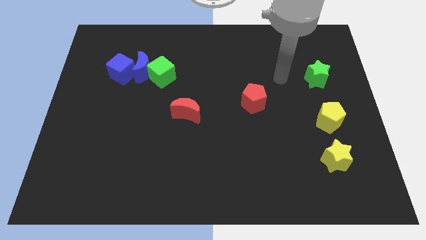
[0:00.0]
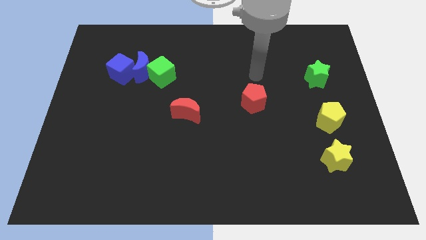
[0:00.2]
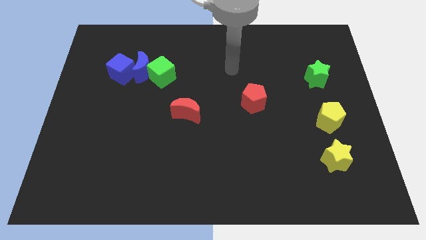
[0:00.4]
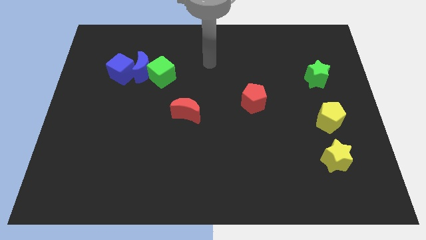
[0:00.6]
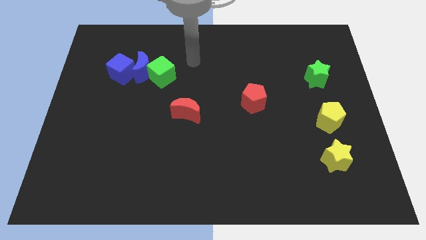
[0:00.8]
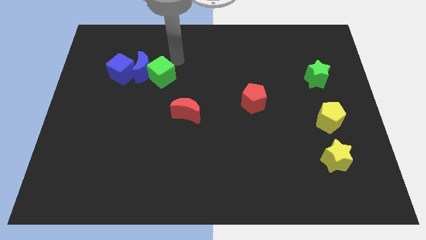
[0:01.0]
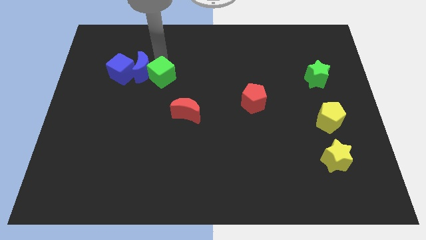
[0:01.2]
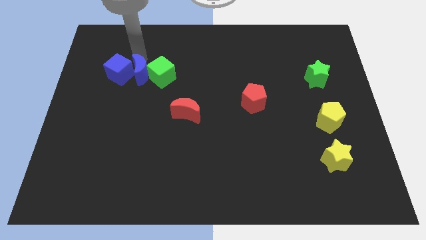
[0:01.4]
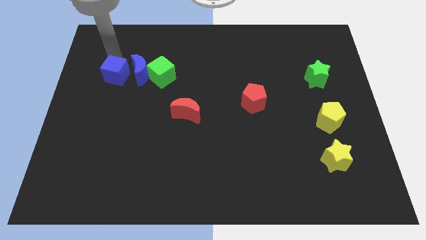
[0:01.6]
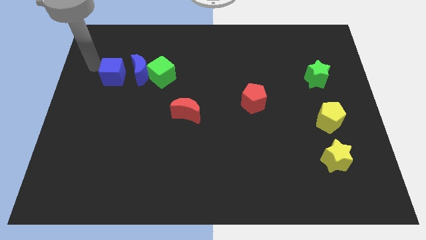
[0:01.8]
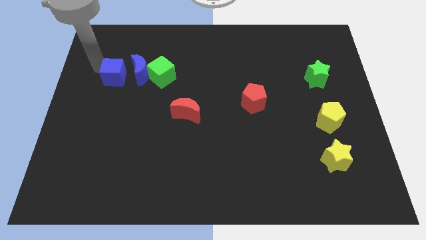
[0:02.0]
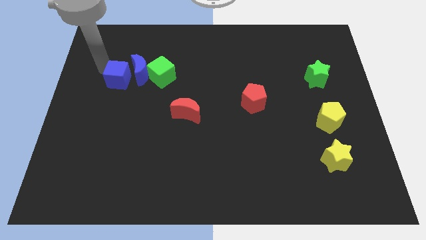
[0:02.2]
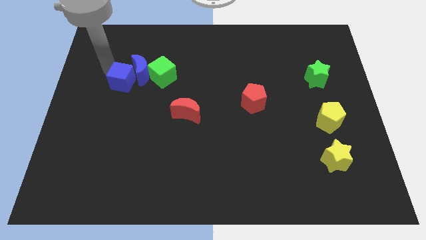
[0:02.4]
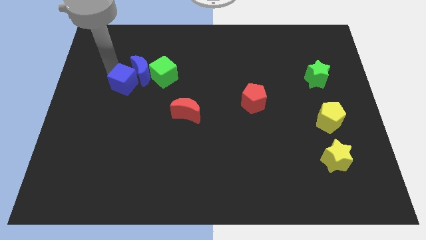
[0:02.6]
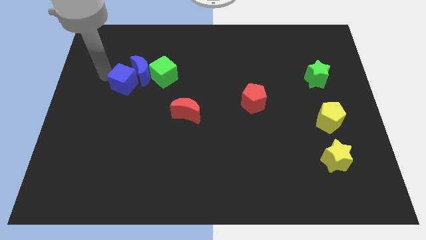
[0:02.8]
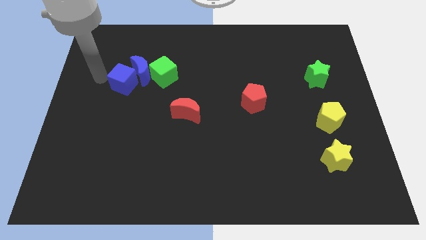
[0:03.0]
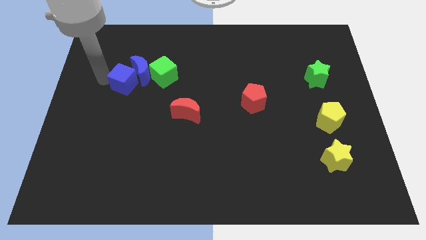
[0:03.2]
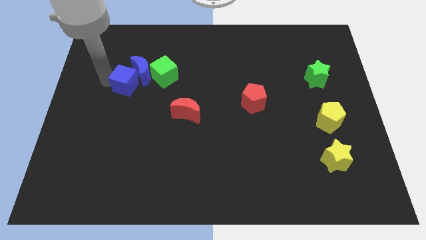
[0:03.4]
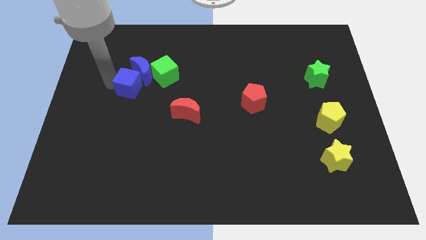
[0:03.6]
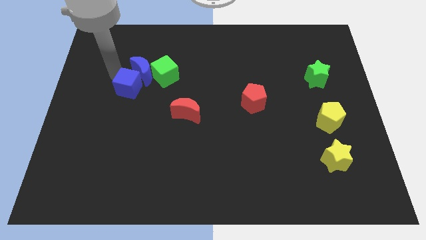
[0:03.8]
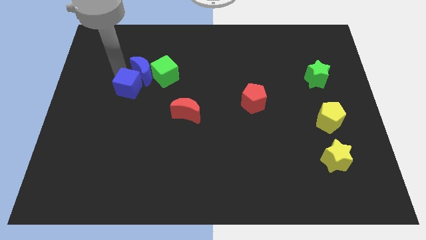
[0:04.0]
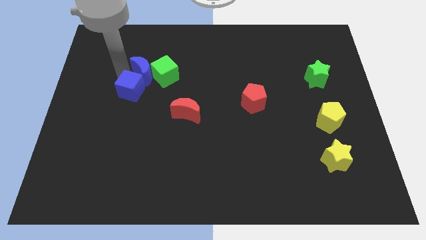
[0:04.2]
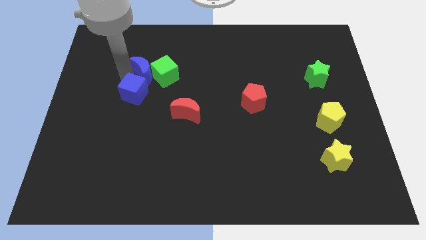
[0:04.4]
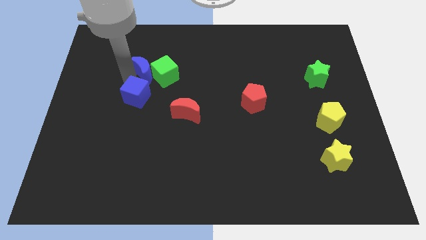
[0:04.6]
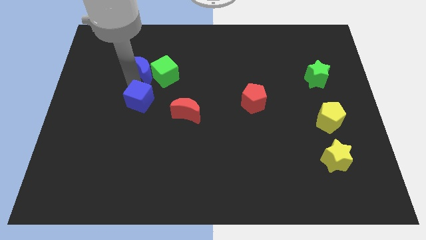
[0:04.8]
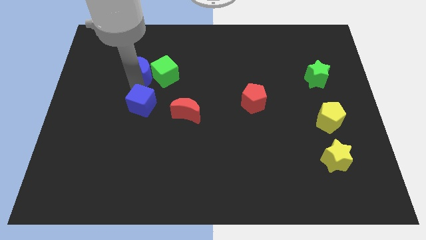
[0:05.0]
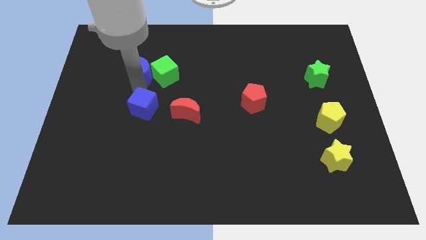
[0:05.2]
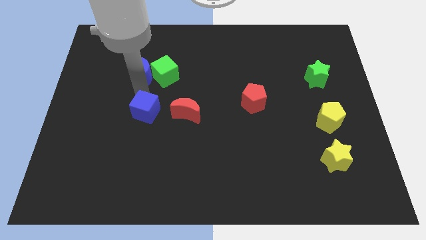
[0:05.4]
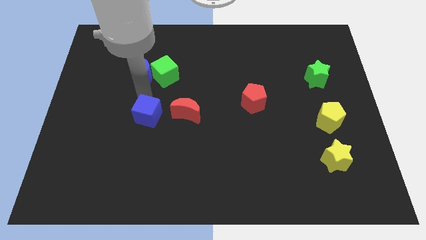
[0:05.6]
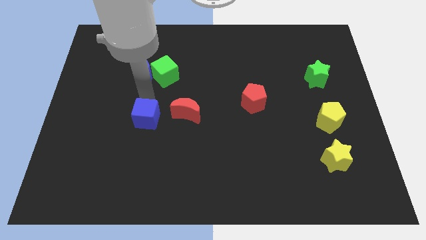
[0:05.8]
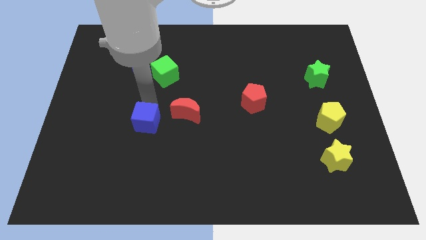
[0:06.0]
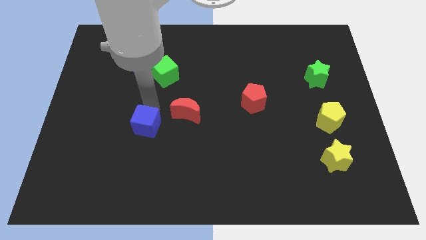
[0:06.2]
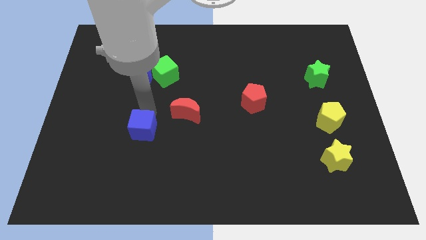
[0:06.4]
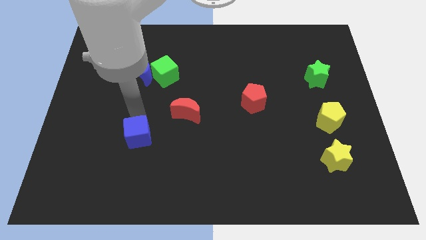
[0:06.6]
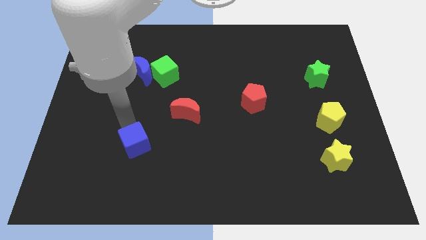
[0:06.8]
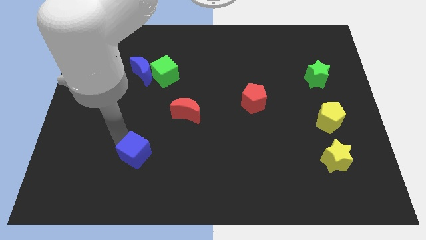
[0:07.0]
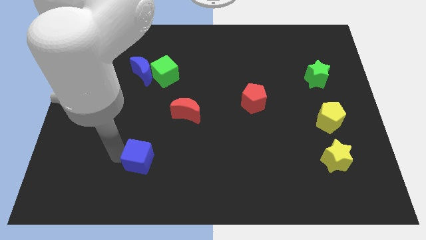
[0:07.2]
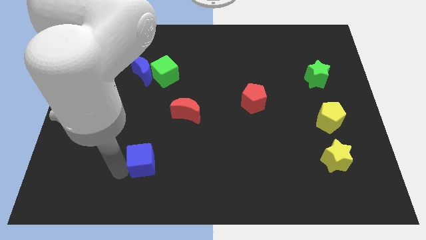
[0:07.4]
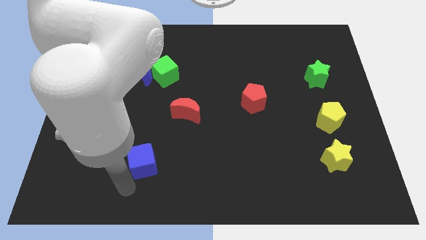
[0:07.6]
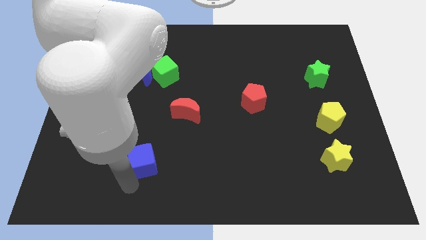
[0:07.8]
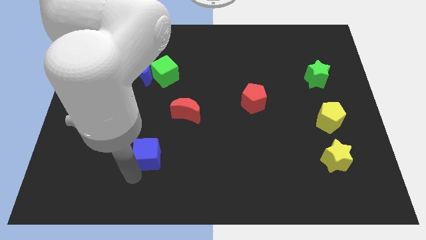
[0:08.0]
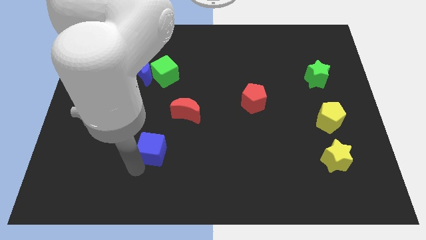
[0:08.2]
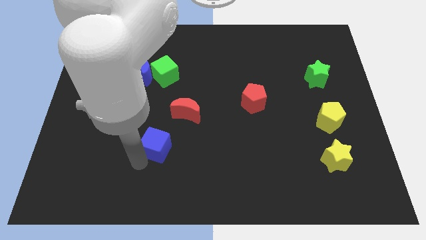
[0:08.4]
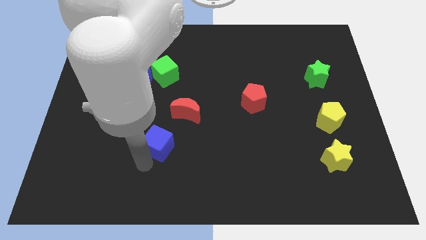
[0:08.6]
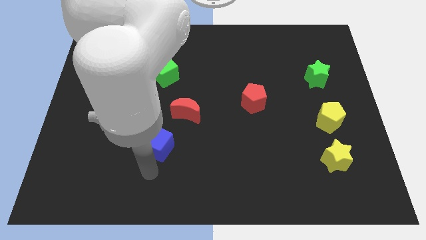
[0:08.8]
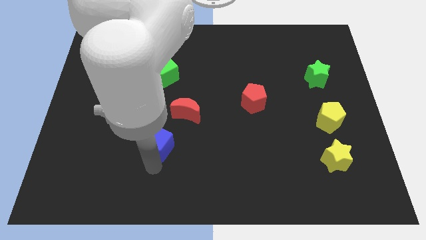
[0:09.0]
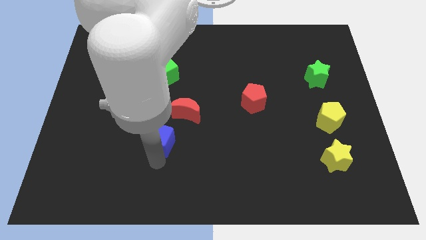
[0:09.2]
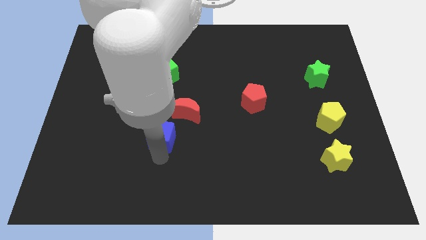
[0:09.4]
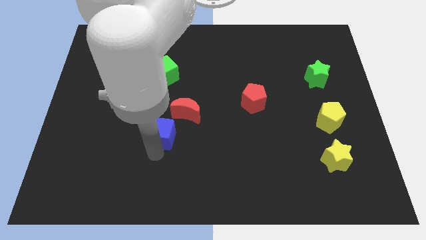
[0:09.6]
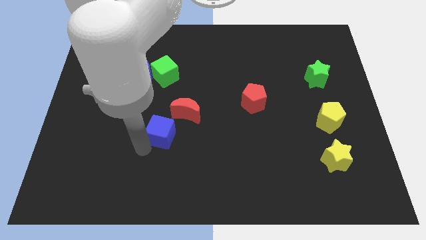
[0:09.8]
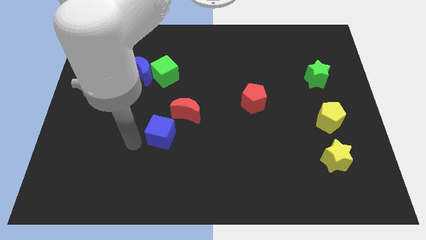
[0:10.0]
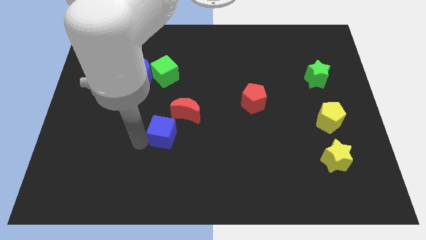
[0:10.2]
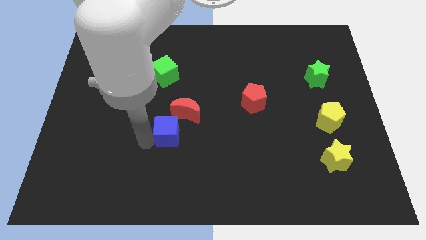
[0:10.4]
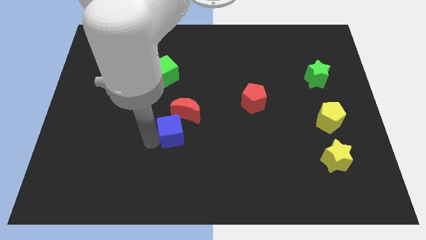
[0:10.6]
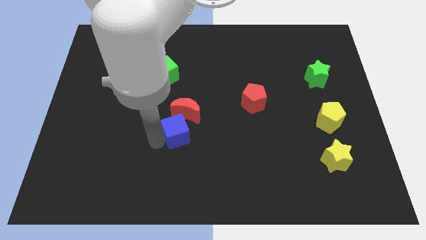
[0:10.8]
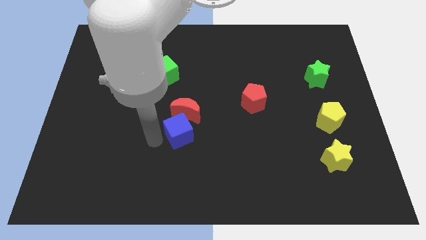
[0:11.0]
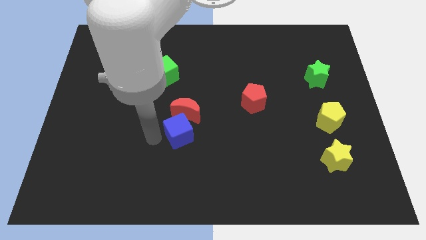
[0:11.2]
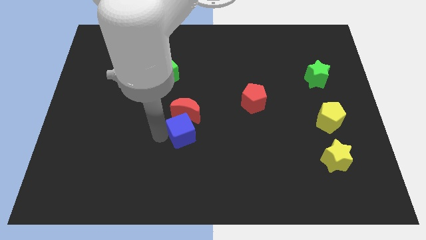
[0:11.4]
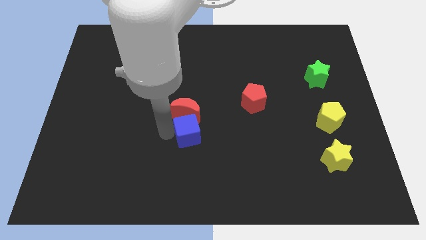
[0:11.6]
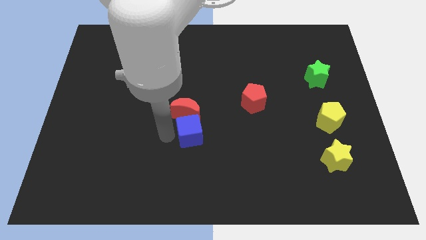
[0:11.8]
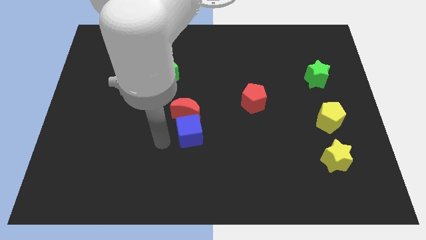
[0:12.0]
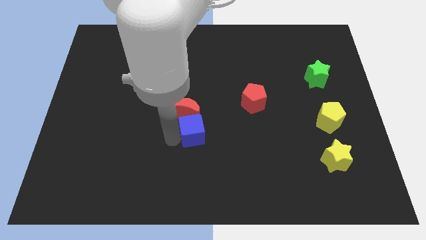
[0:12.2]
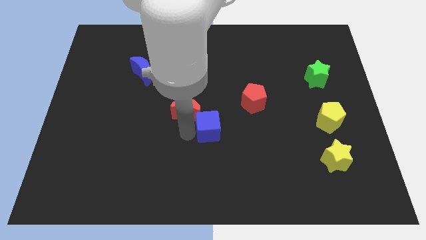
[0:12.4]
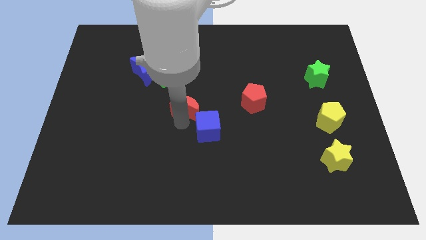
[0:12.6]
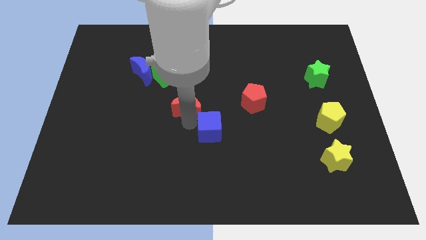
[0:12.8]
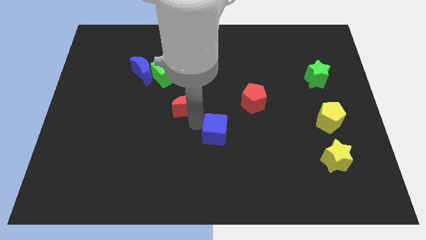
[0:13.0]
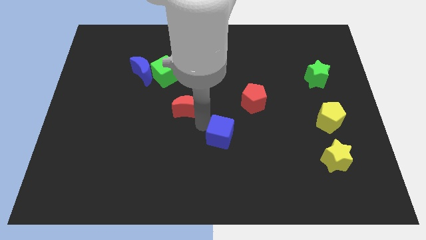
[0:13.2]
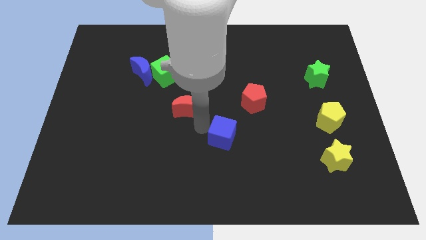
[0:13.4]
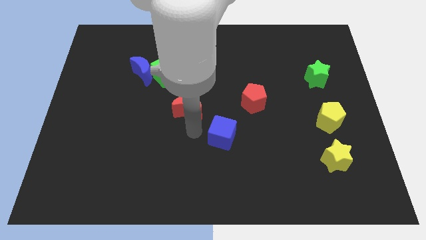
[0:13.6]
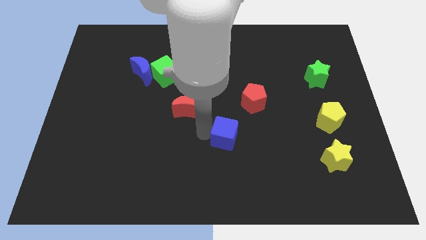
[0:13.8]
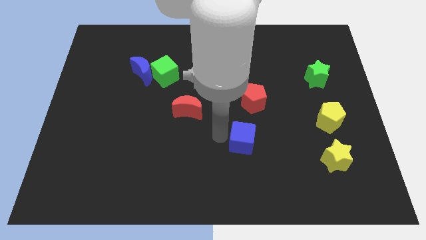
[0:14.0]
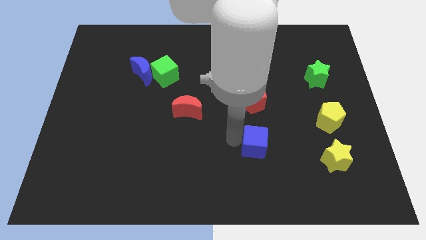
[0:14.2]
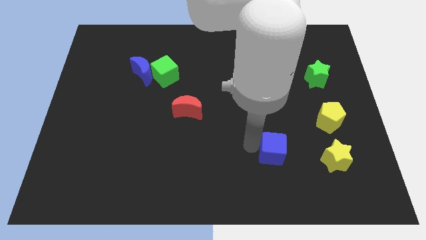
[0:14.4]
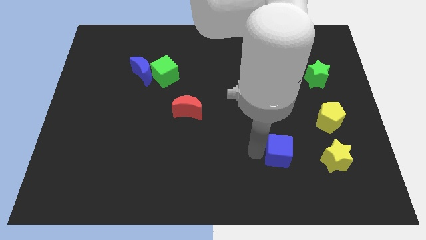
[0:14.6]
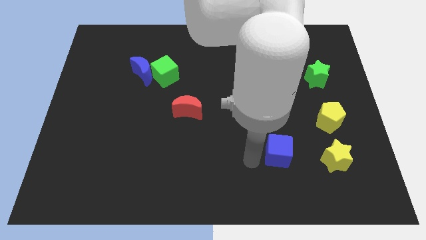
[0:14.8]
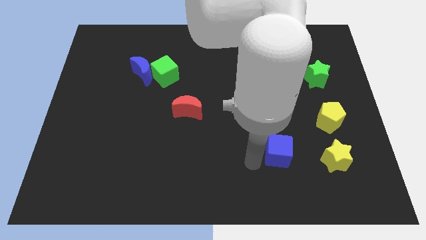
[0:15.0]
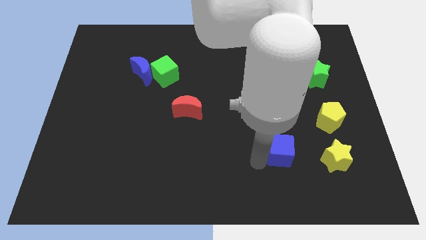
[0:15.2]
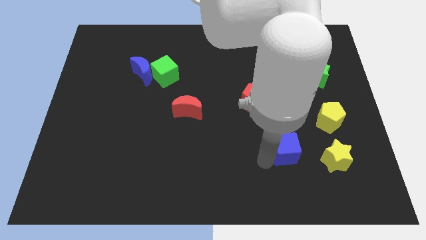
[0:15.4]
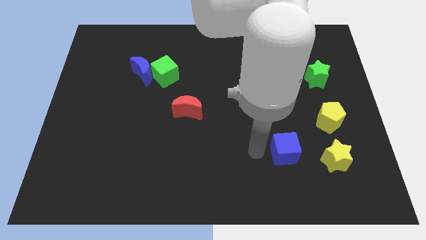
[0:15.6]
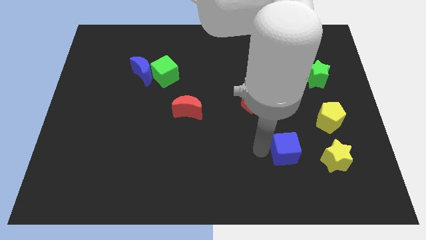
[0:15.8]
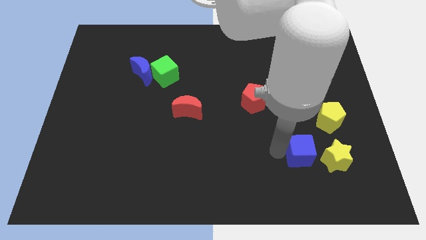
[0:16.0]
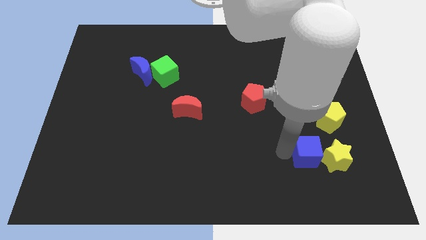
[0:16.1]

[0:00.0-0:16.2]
push the blue cube next to the yellow star
